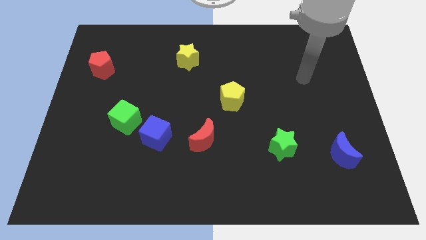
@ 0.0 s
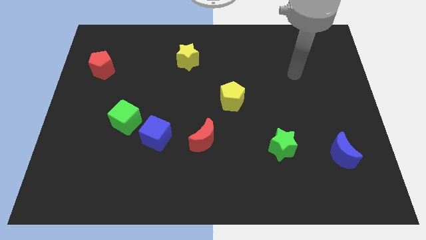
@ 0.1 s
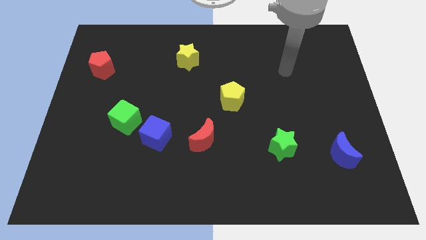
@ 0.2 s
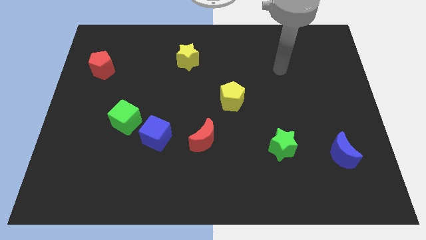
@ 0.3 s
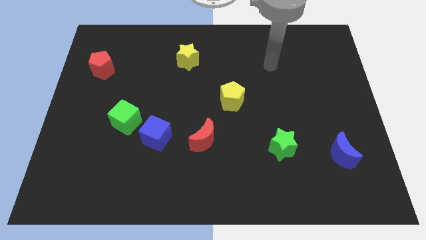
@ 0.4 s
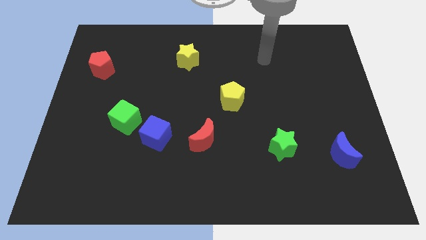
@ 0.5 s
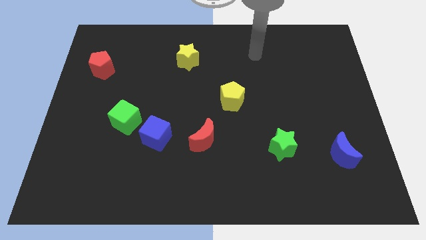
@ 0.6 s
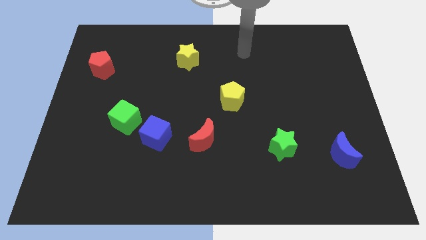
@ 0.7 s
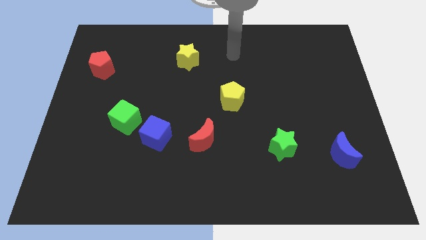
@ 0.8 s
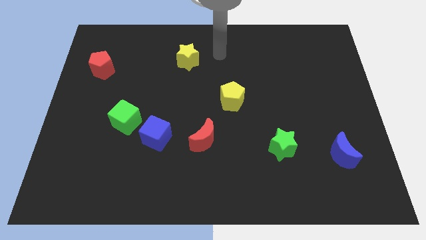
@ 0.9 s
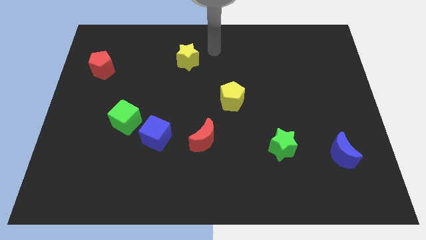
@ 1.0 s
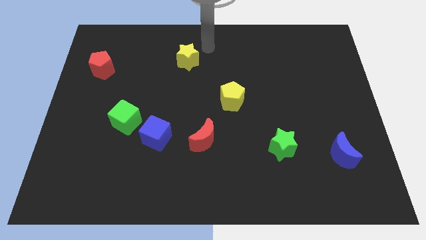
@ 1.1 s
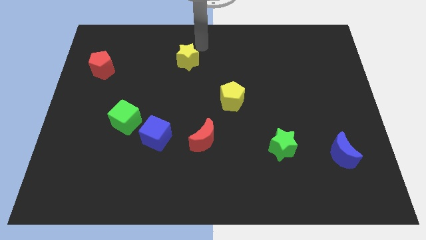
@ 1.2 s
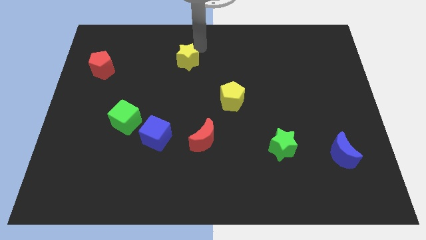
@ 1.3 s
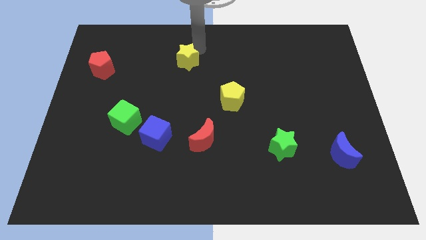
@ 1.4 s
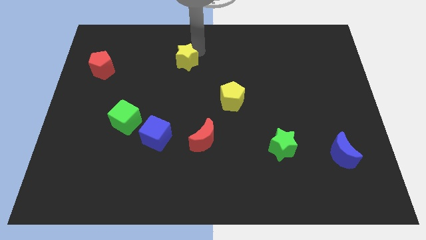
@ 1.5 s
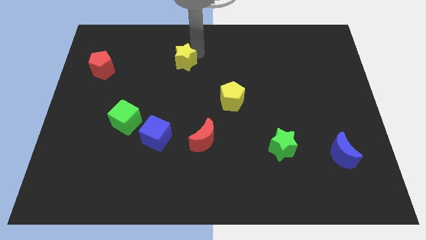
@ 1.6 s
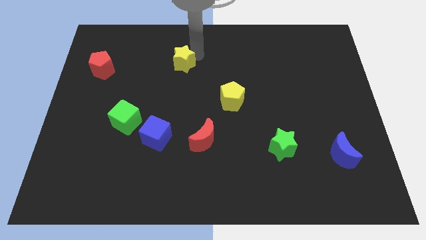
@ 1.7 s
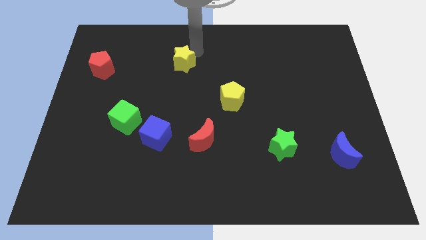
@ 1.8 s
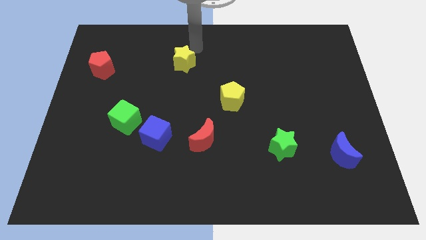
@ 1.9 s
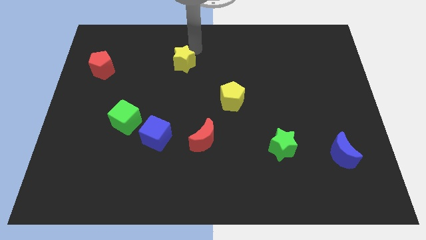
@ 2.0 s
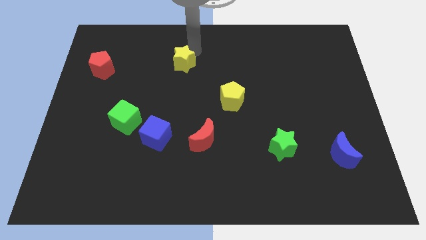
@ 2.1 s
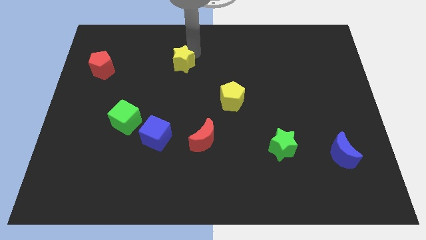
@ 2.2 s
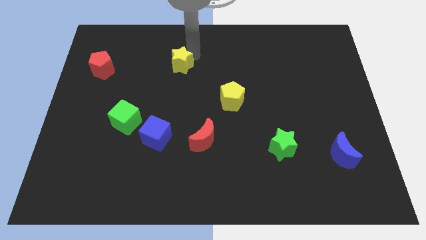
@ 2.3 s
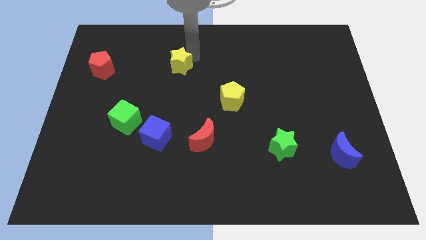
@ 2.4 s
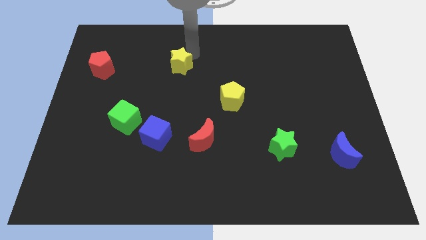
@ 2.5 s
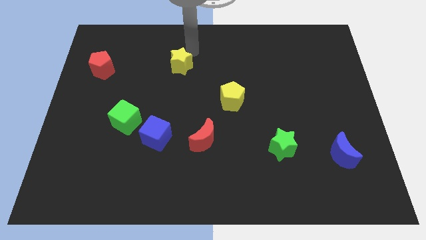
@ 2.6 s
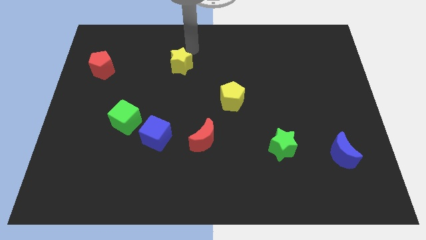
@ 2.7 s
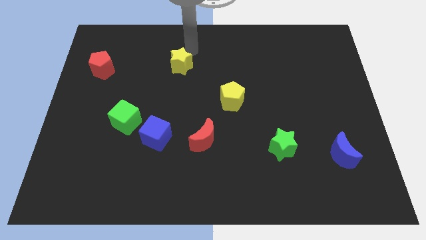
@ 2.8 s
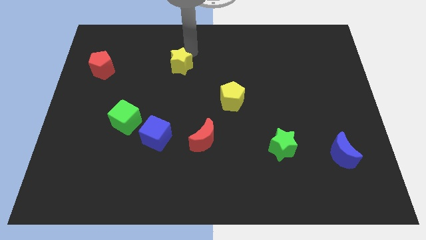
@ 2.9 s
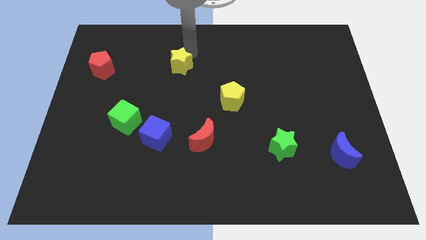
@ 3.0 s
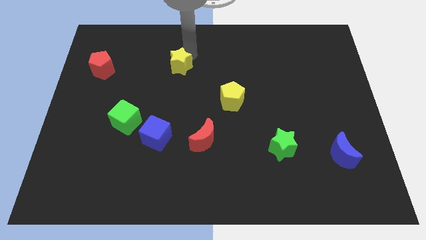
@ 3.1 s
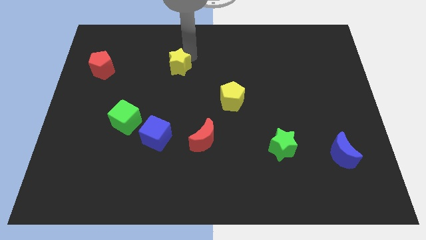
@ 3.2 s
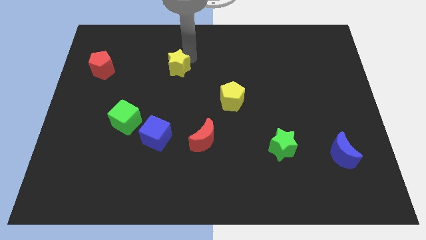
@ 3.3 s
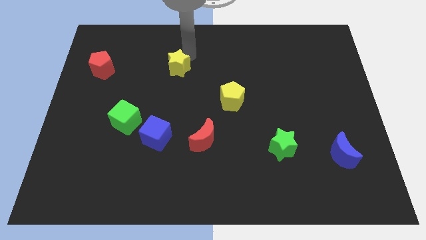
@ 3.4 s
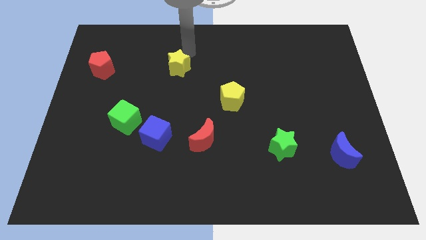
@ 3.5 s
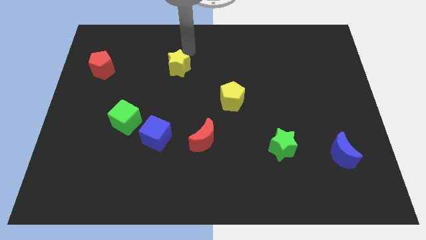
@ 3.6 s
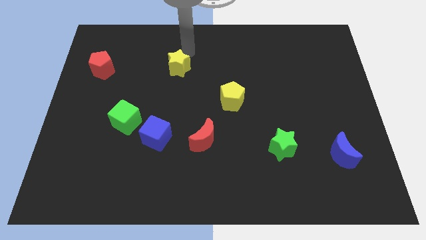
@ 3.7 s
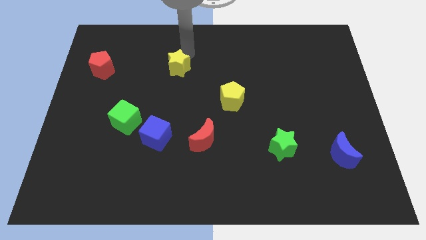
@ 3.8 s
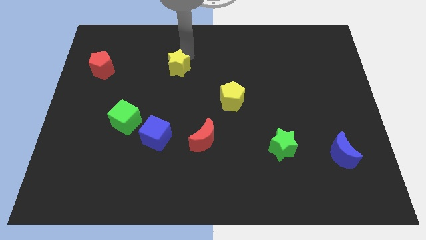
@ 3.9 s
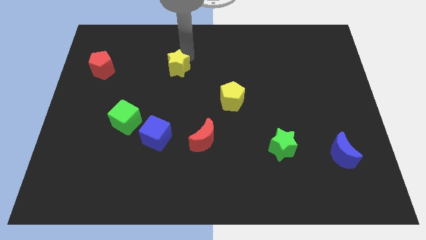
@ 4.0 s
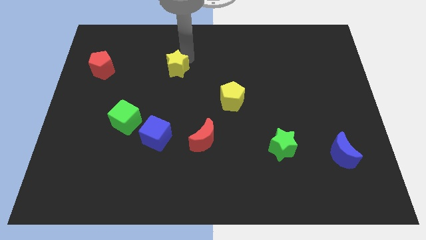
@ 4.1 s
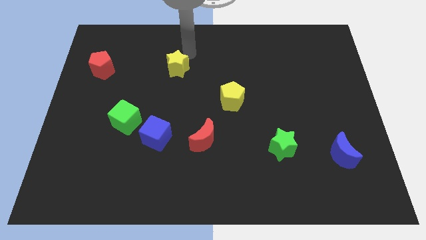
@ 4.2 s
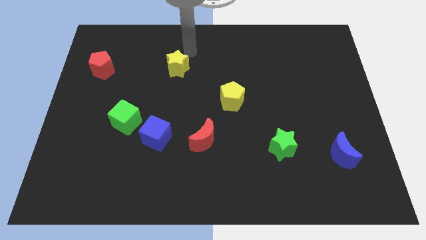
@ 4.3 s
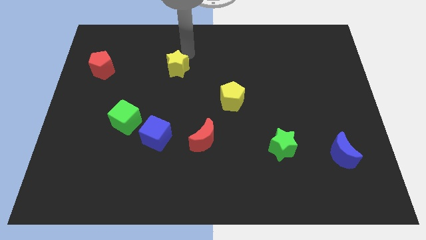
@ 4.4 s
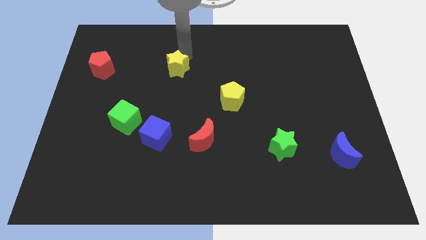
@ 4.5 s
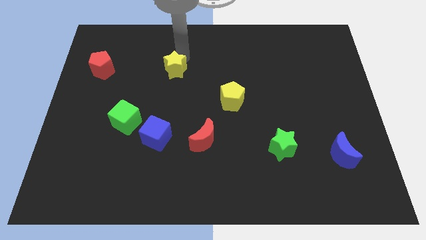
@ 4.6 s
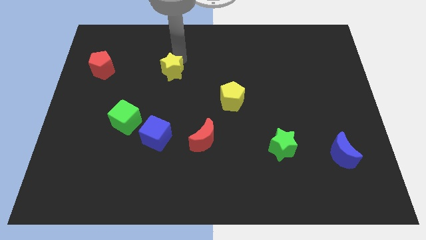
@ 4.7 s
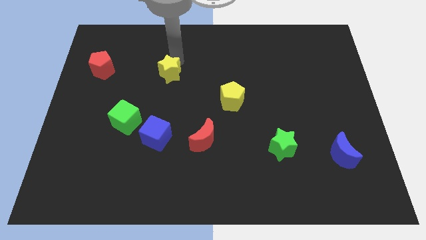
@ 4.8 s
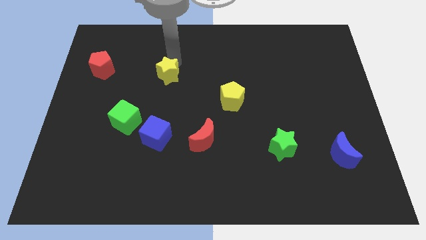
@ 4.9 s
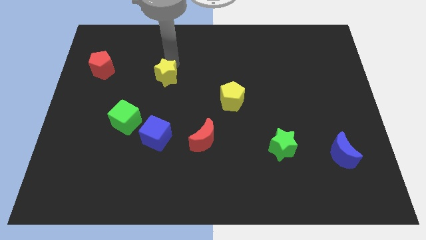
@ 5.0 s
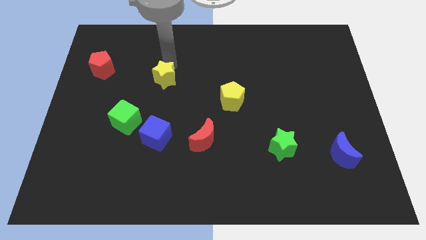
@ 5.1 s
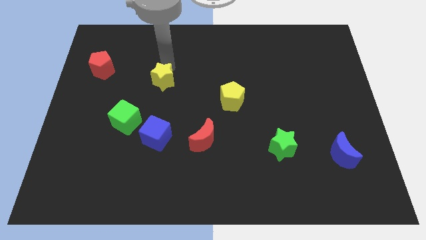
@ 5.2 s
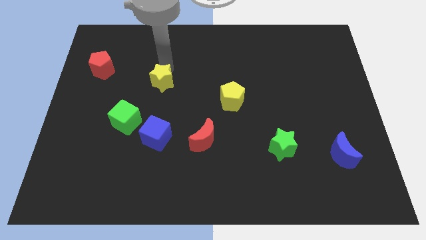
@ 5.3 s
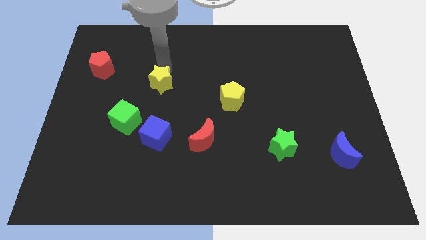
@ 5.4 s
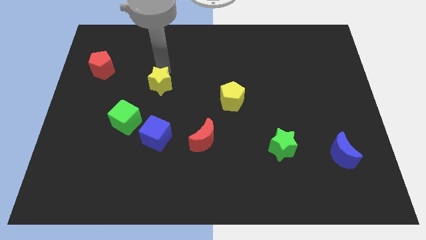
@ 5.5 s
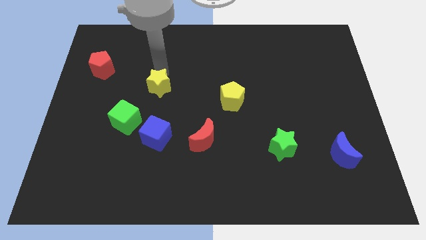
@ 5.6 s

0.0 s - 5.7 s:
push the yellow star diagonally up and to the right of the green cube

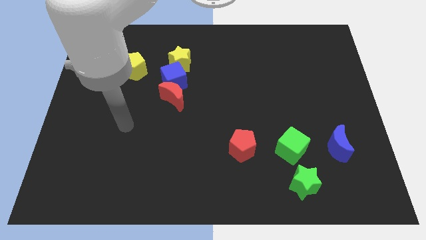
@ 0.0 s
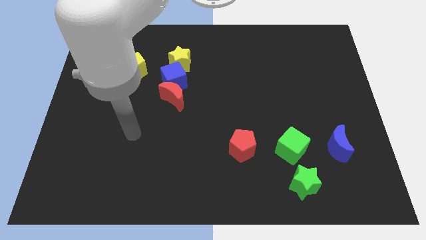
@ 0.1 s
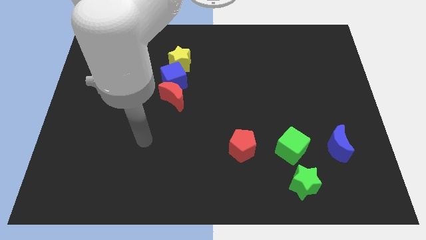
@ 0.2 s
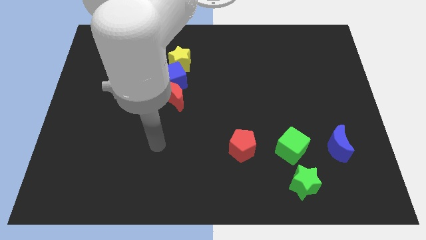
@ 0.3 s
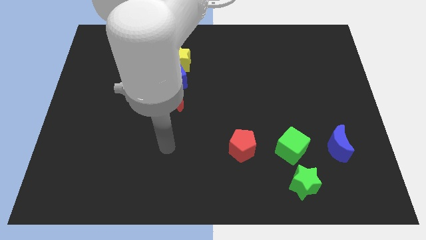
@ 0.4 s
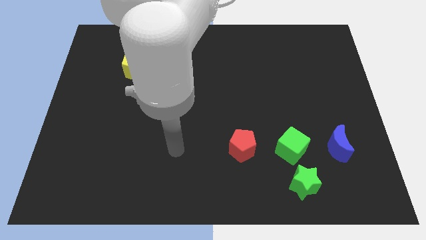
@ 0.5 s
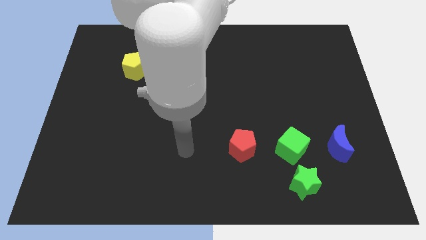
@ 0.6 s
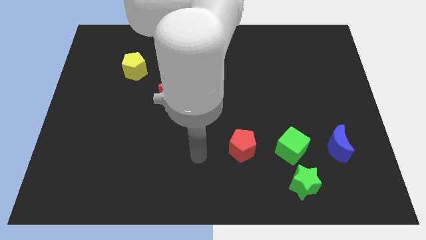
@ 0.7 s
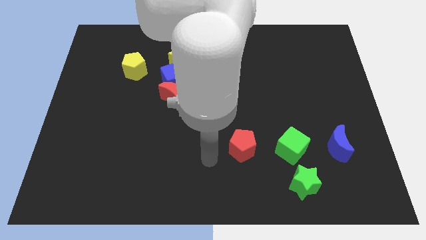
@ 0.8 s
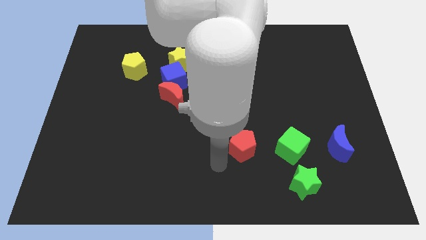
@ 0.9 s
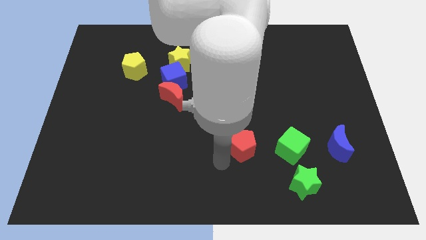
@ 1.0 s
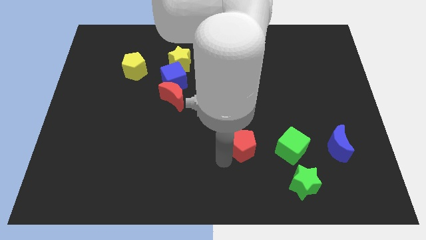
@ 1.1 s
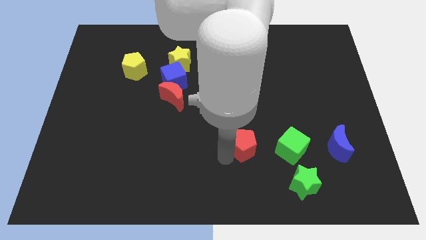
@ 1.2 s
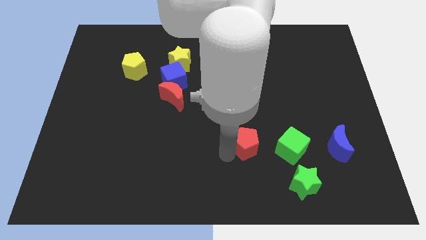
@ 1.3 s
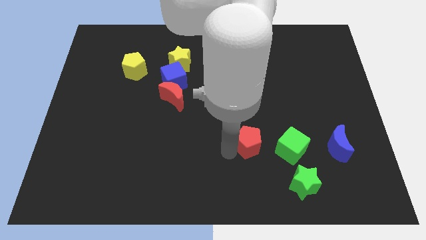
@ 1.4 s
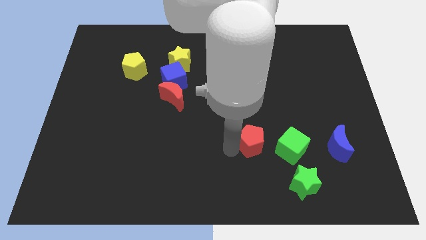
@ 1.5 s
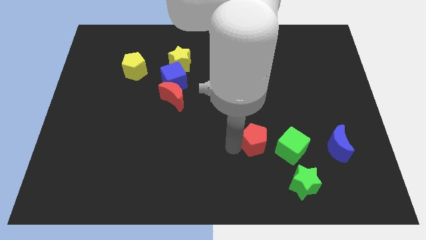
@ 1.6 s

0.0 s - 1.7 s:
put the red pentagon to the top left of the green cube
